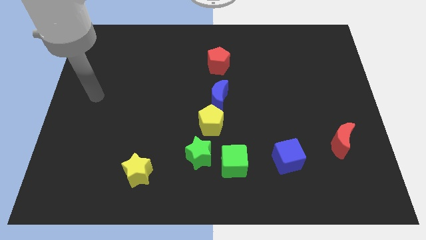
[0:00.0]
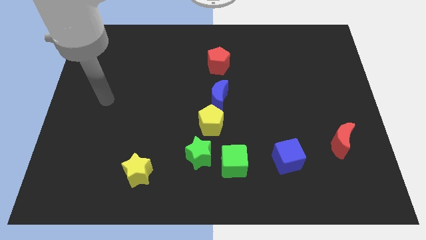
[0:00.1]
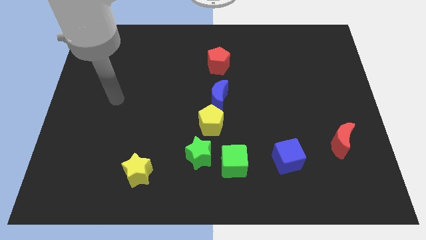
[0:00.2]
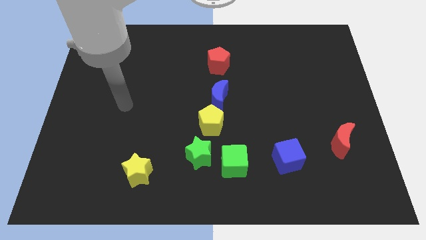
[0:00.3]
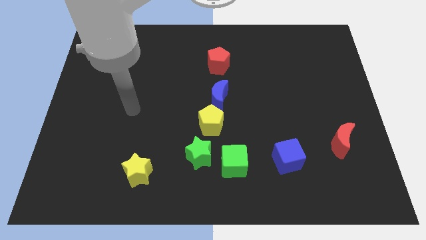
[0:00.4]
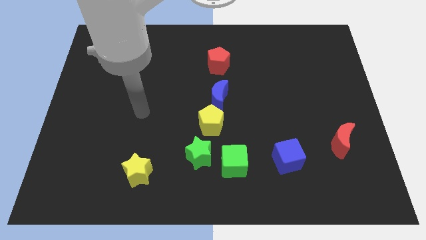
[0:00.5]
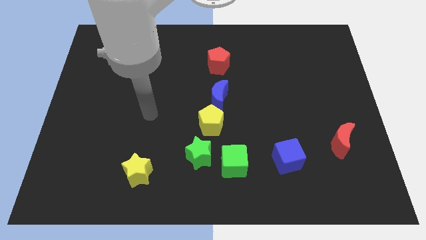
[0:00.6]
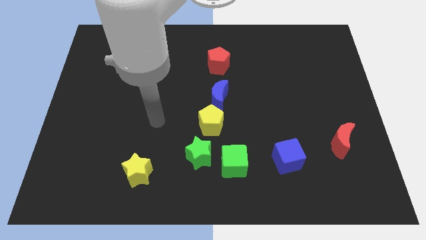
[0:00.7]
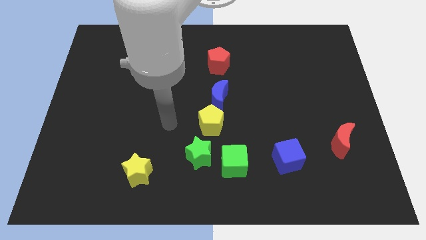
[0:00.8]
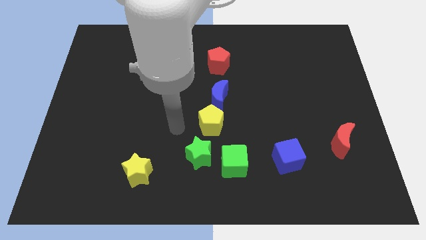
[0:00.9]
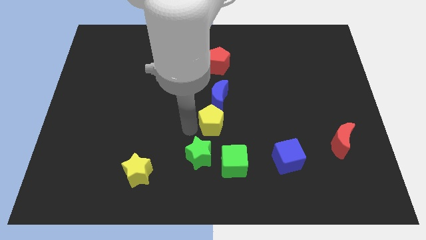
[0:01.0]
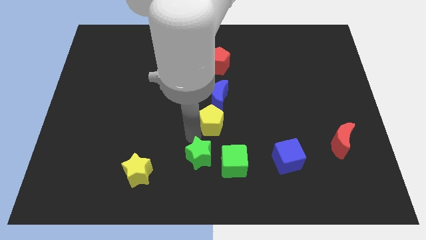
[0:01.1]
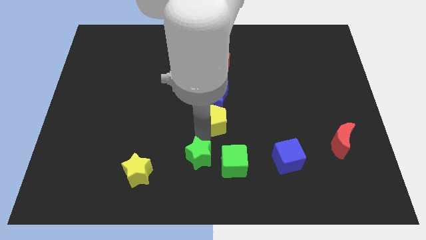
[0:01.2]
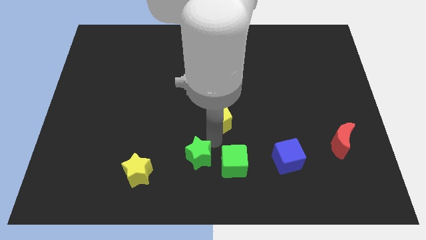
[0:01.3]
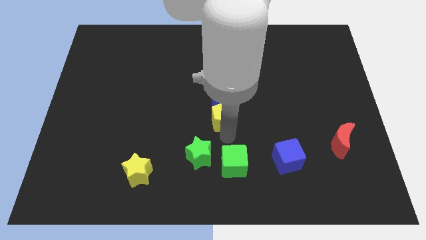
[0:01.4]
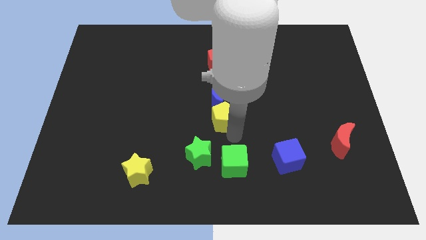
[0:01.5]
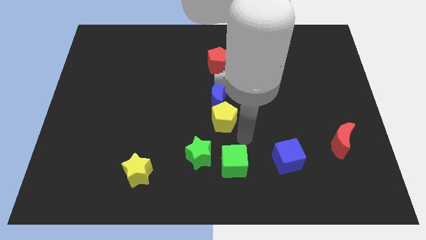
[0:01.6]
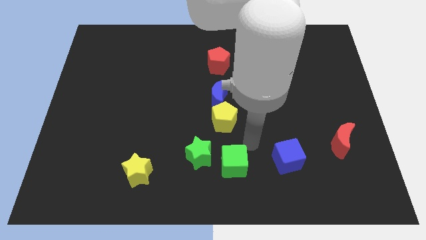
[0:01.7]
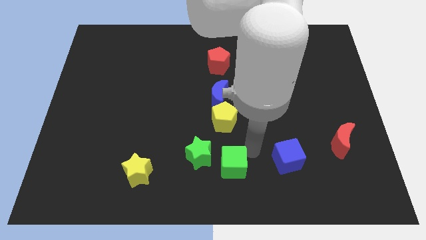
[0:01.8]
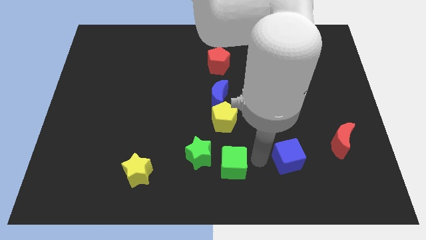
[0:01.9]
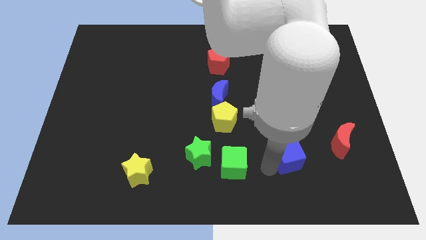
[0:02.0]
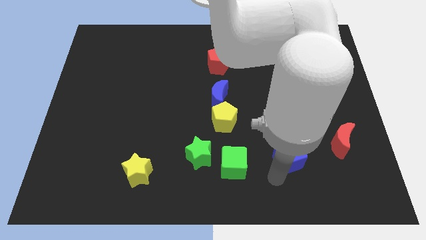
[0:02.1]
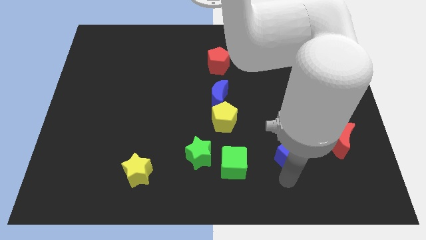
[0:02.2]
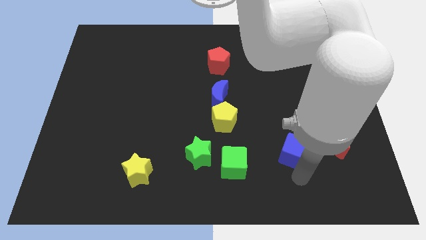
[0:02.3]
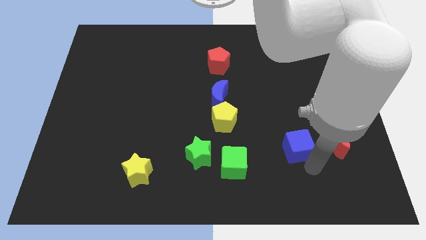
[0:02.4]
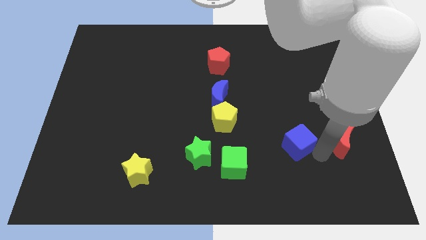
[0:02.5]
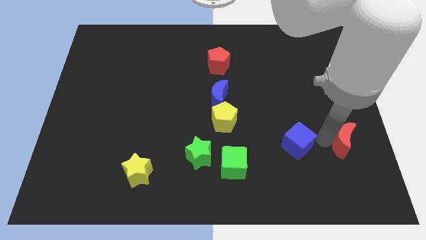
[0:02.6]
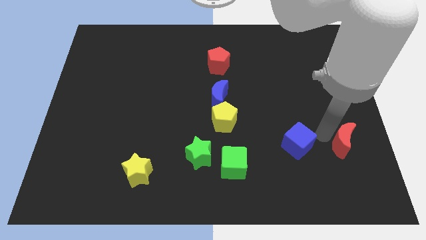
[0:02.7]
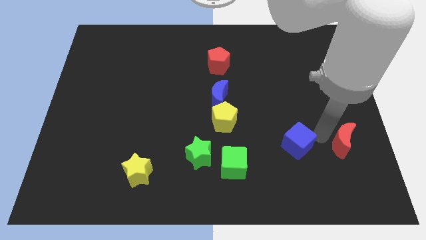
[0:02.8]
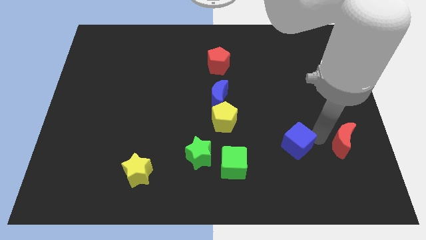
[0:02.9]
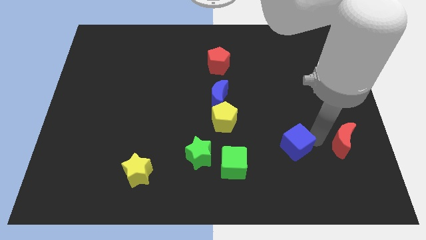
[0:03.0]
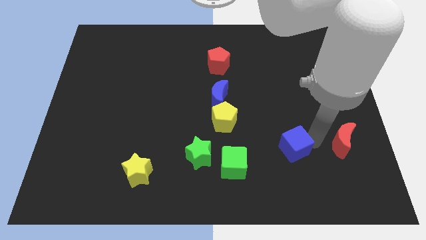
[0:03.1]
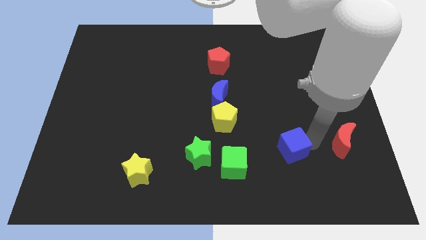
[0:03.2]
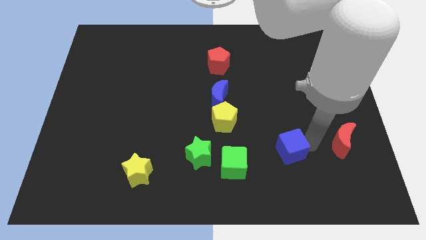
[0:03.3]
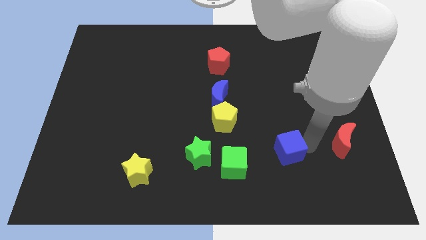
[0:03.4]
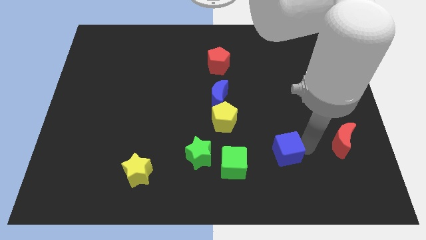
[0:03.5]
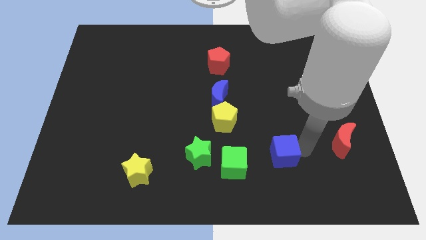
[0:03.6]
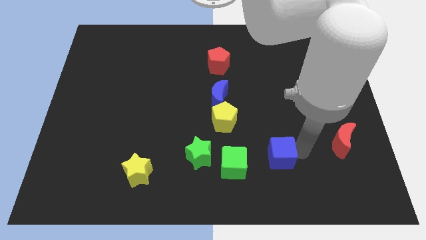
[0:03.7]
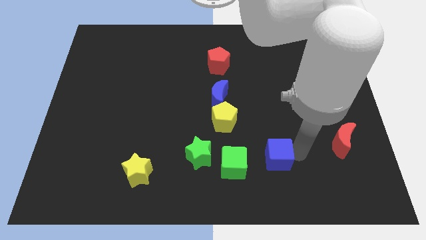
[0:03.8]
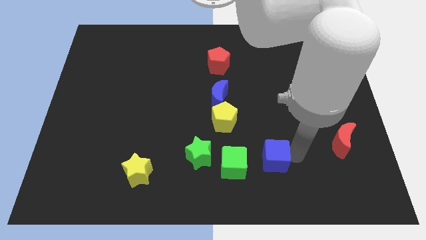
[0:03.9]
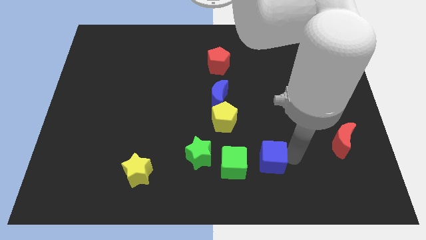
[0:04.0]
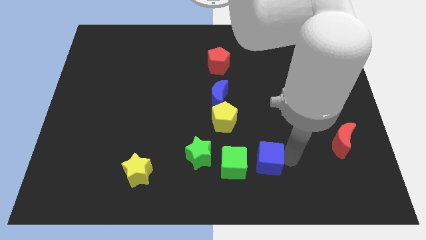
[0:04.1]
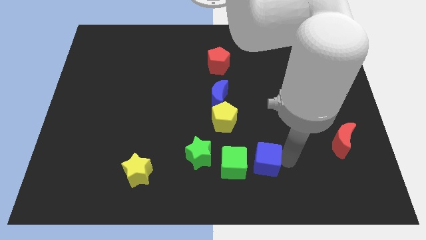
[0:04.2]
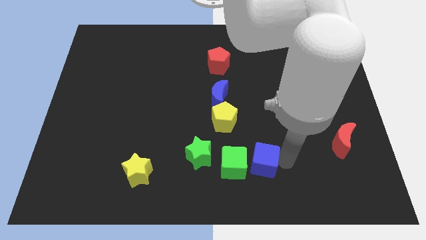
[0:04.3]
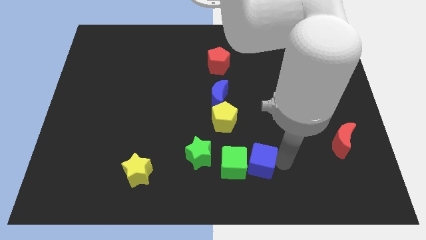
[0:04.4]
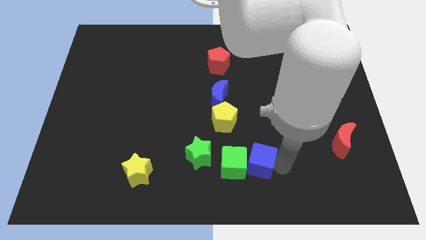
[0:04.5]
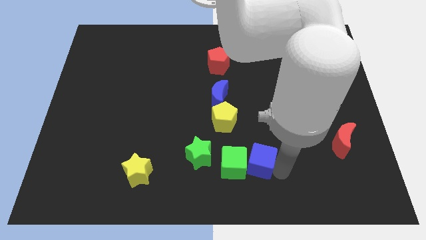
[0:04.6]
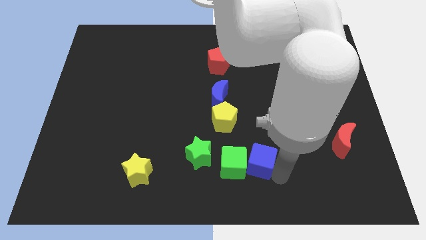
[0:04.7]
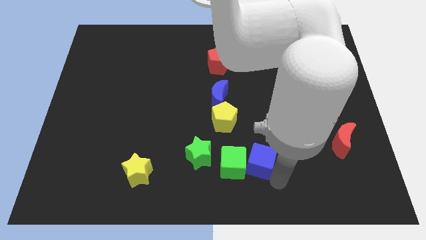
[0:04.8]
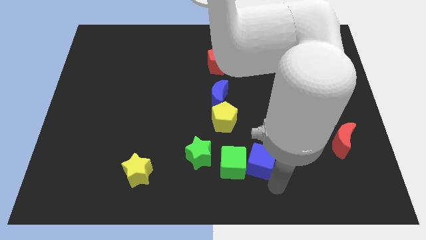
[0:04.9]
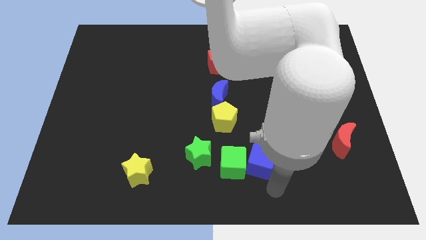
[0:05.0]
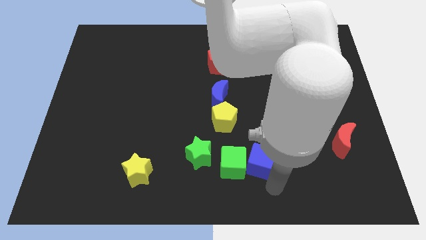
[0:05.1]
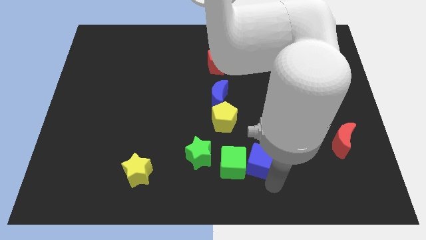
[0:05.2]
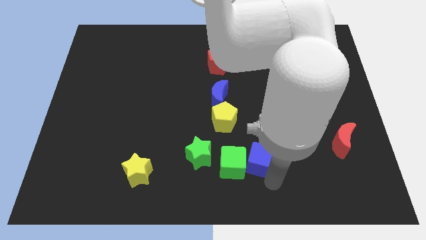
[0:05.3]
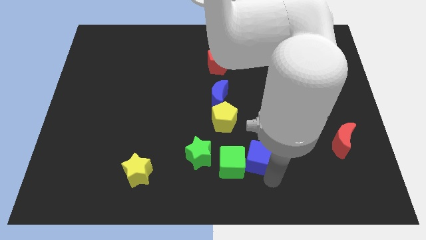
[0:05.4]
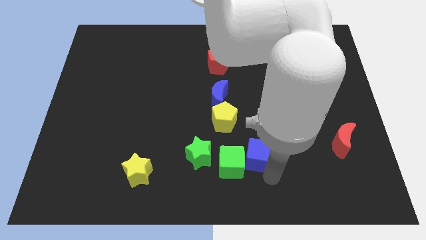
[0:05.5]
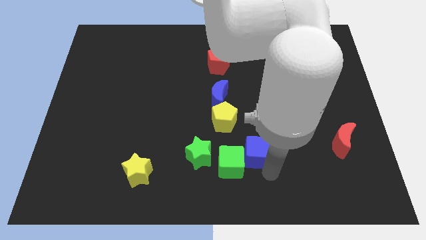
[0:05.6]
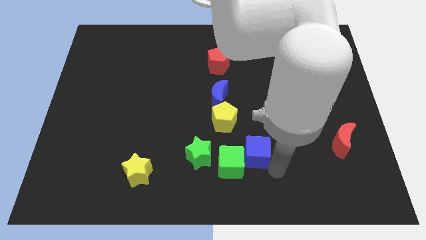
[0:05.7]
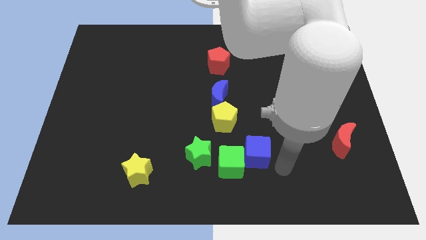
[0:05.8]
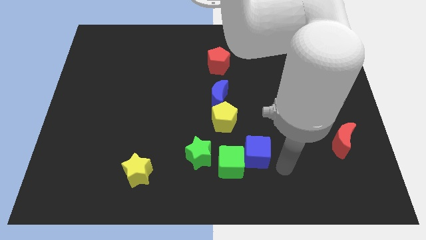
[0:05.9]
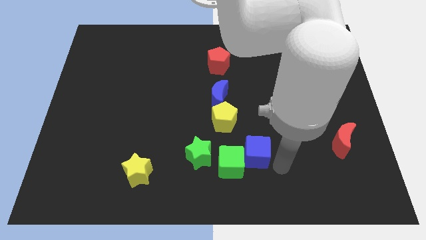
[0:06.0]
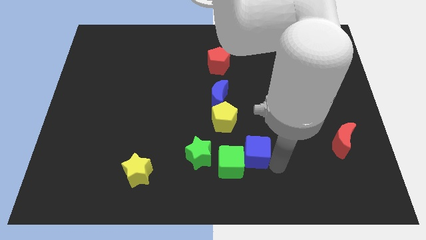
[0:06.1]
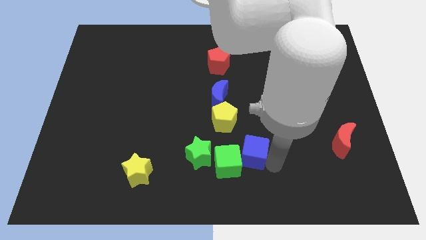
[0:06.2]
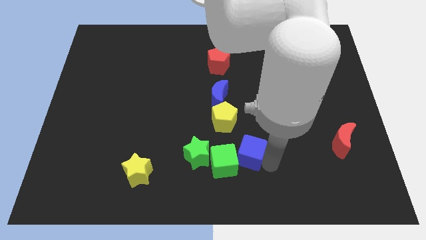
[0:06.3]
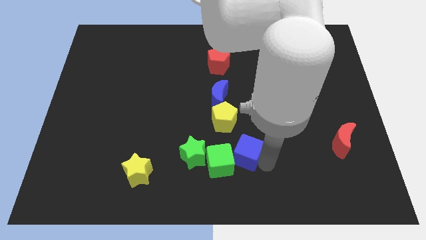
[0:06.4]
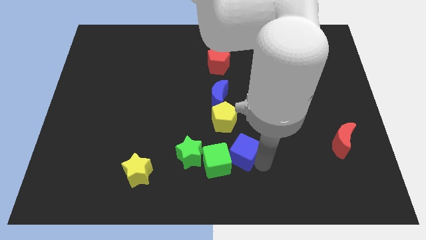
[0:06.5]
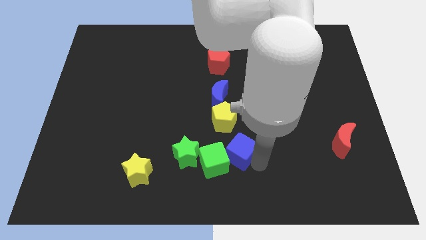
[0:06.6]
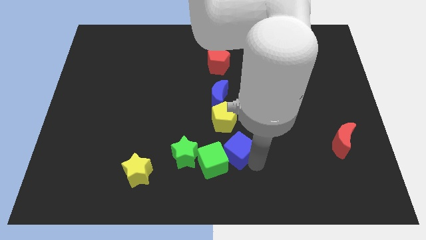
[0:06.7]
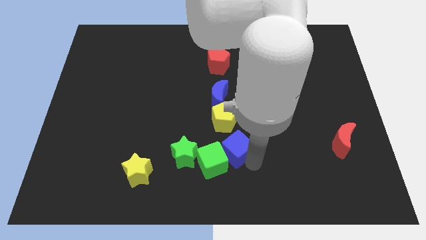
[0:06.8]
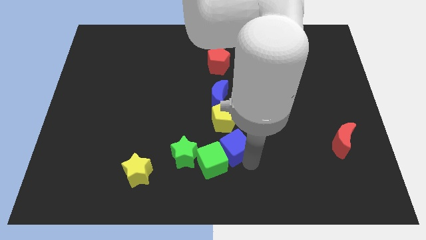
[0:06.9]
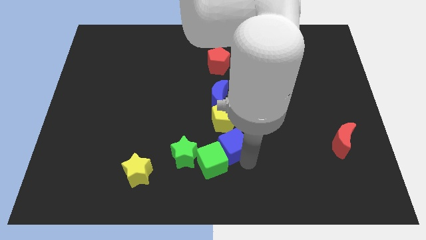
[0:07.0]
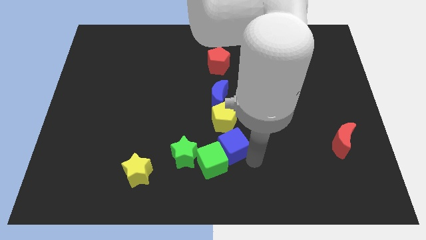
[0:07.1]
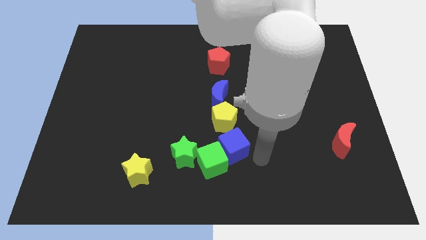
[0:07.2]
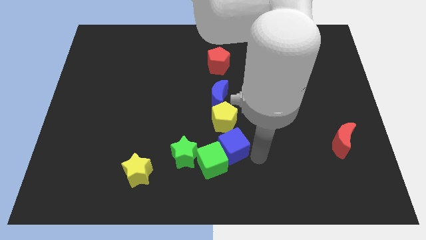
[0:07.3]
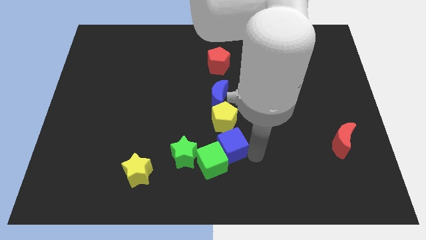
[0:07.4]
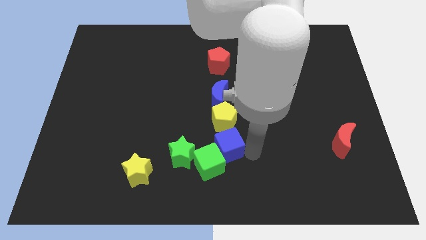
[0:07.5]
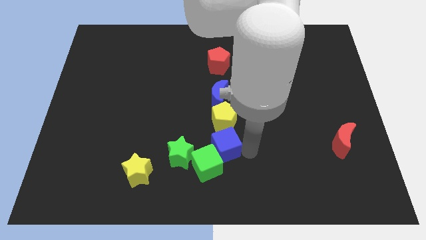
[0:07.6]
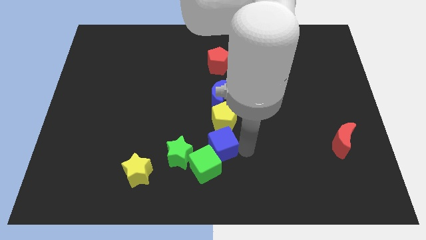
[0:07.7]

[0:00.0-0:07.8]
move the blue cube to the bottom left of the yellow pentagon

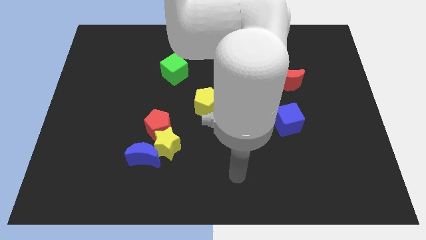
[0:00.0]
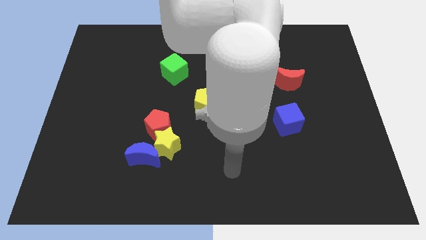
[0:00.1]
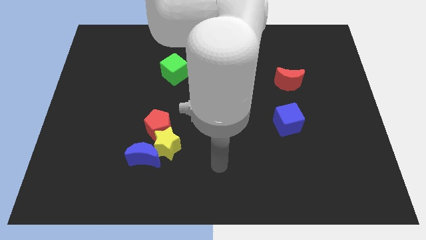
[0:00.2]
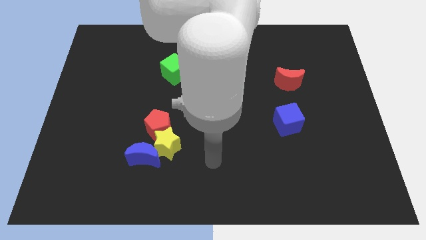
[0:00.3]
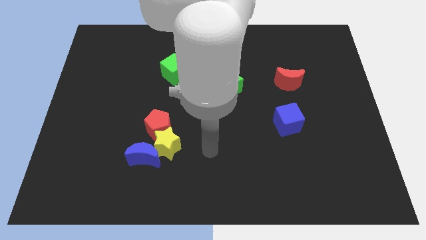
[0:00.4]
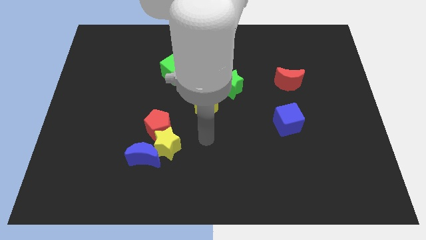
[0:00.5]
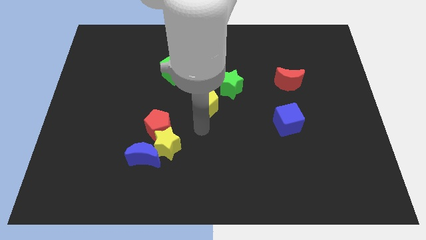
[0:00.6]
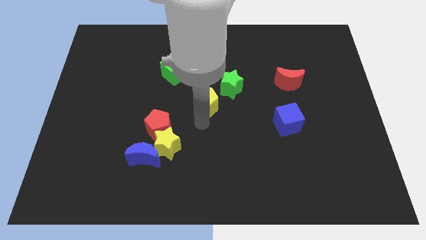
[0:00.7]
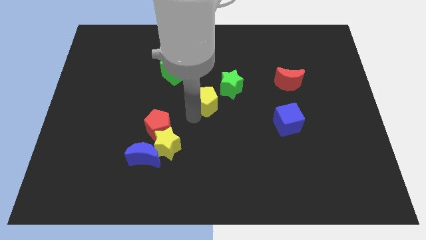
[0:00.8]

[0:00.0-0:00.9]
put the green cube to the top left of the yellow pentagon
